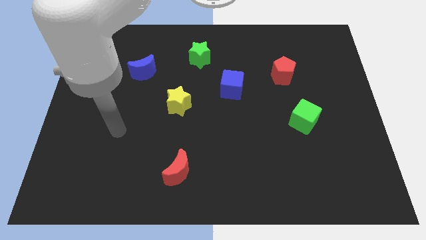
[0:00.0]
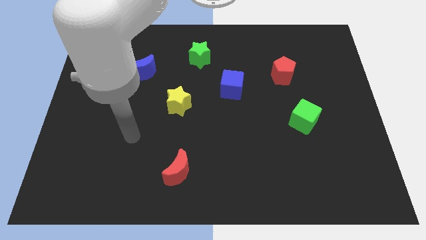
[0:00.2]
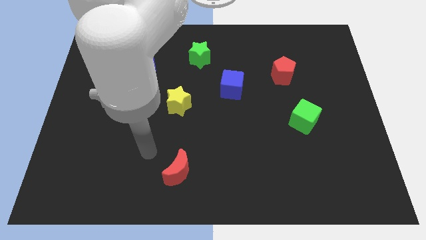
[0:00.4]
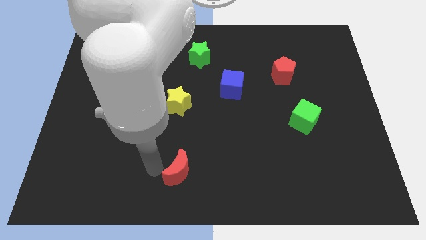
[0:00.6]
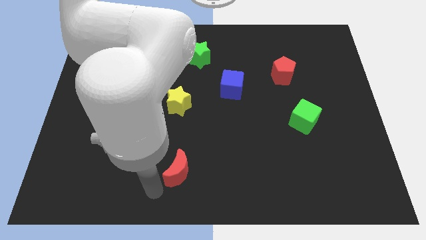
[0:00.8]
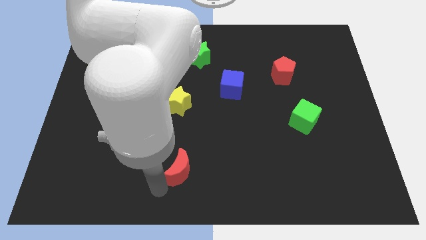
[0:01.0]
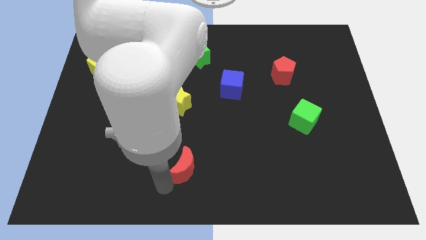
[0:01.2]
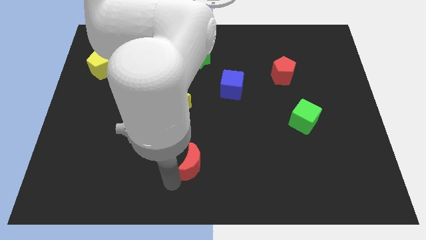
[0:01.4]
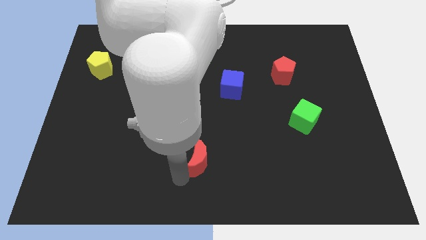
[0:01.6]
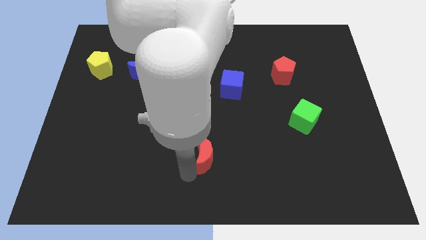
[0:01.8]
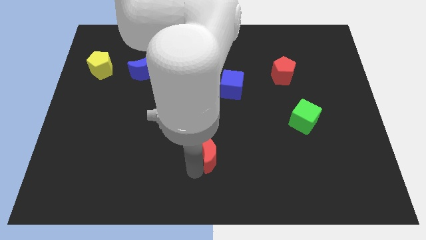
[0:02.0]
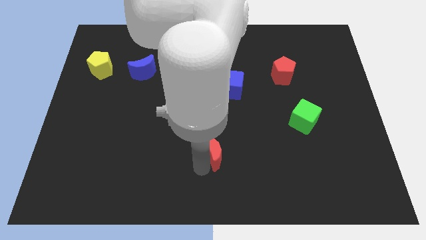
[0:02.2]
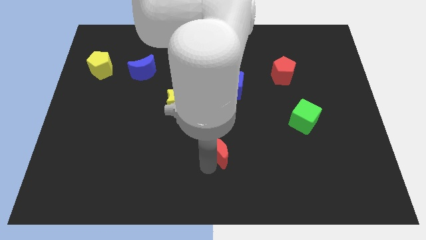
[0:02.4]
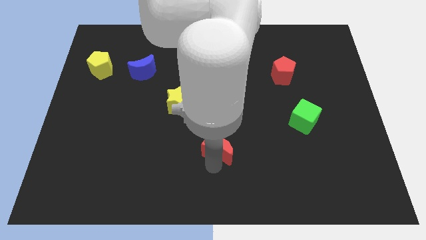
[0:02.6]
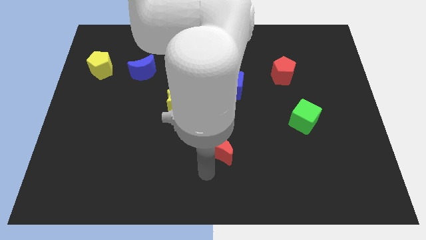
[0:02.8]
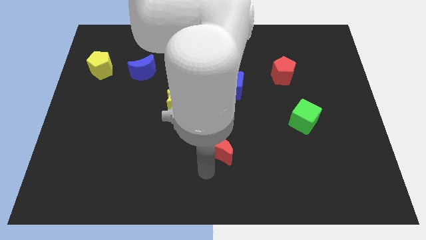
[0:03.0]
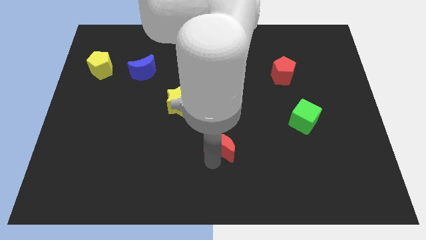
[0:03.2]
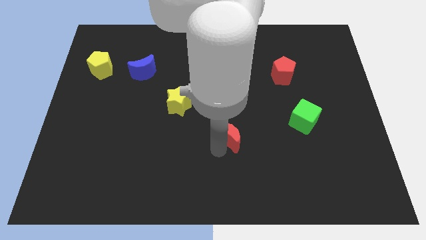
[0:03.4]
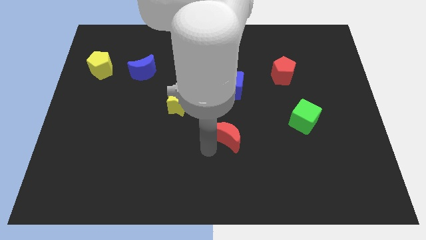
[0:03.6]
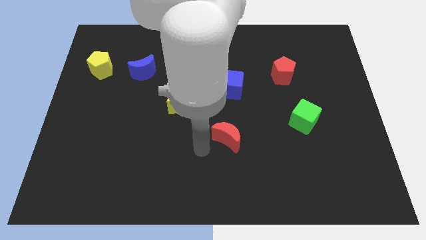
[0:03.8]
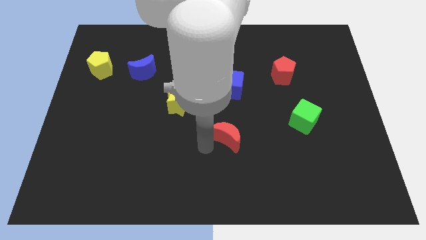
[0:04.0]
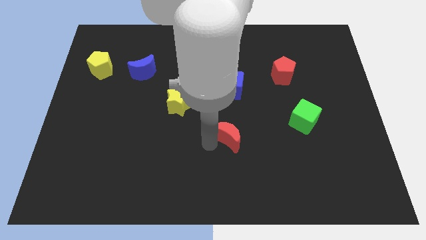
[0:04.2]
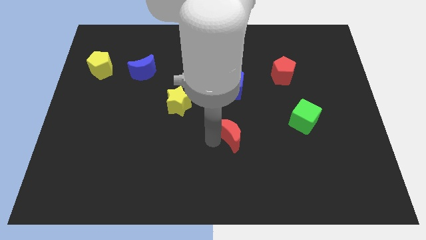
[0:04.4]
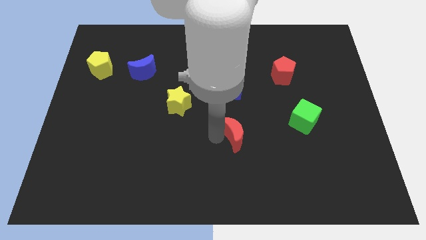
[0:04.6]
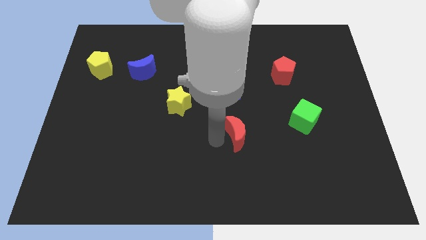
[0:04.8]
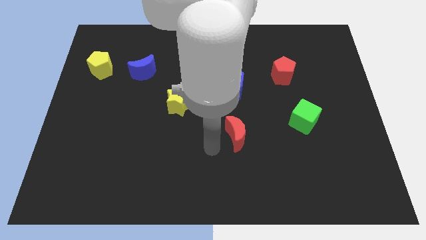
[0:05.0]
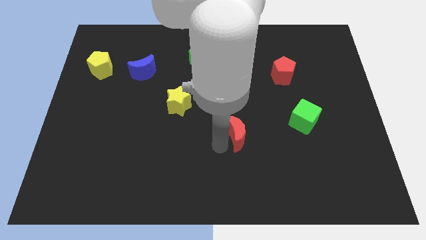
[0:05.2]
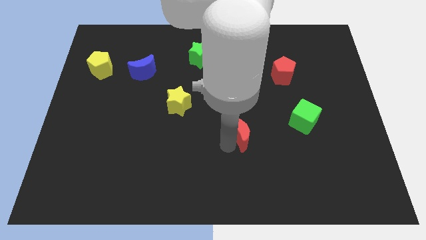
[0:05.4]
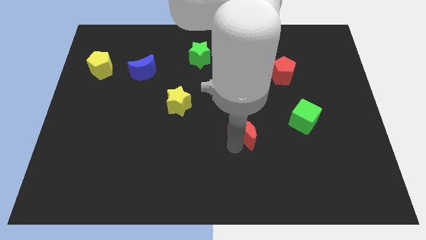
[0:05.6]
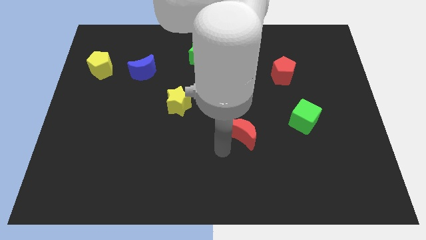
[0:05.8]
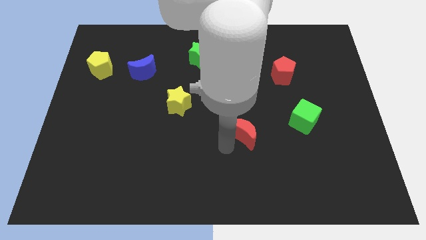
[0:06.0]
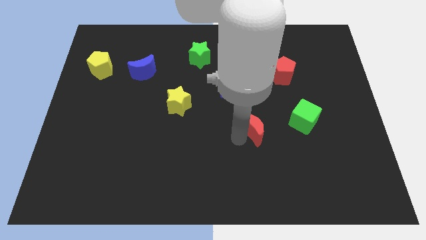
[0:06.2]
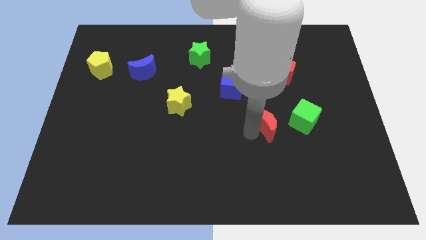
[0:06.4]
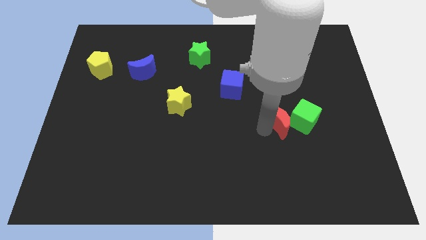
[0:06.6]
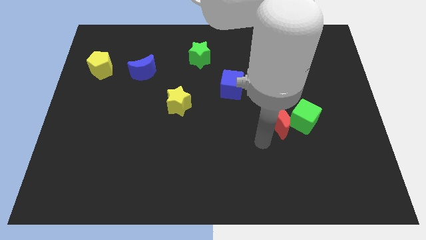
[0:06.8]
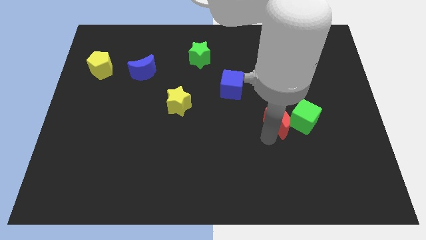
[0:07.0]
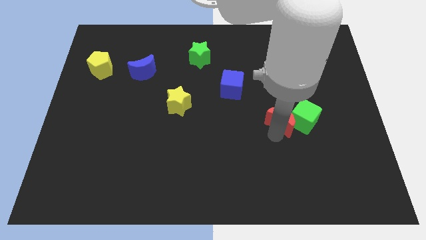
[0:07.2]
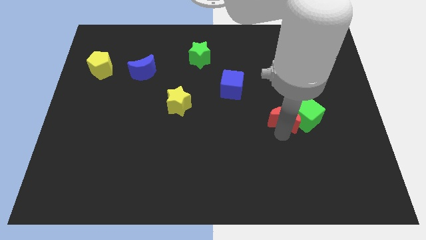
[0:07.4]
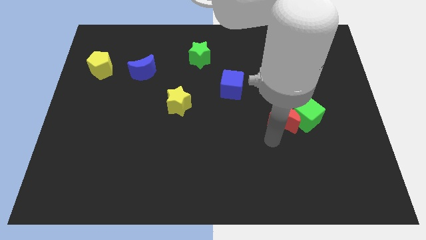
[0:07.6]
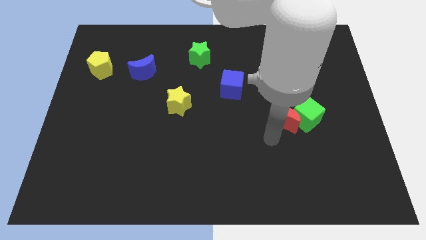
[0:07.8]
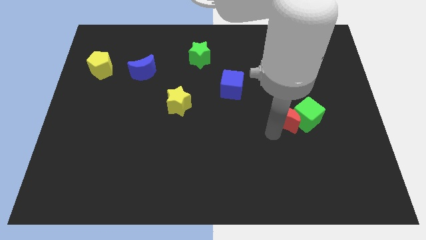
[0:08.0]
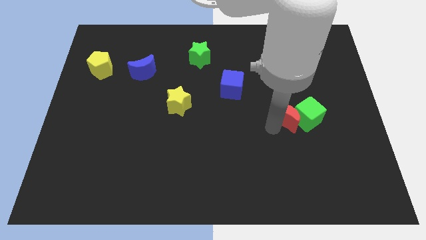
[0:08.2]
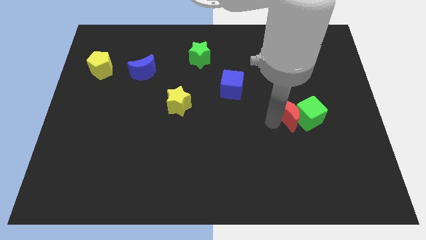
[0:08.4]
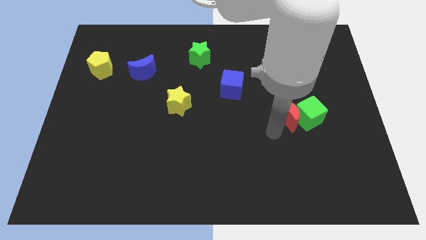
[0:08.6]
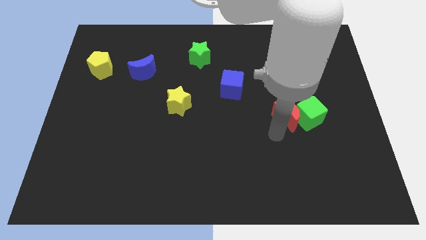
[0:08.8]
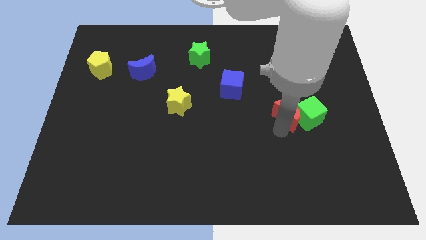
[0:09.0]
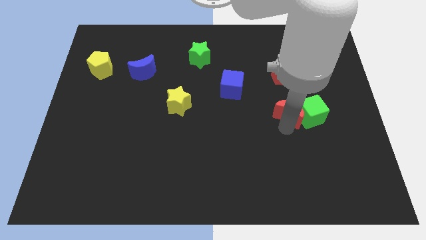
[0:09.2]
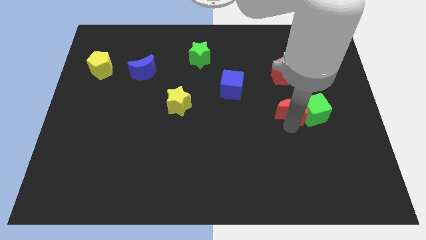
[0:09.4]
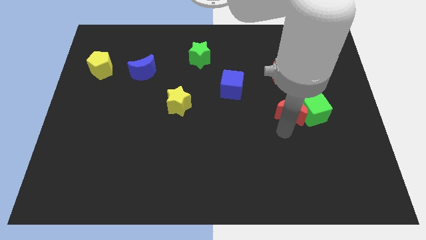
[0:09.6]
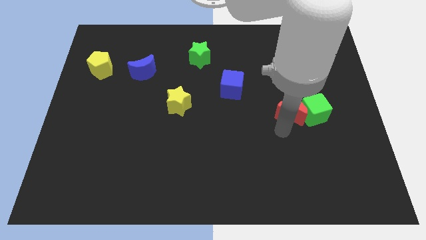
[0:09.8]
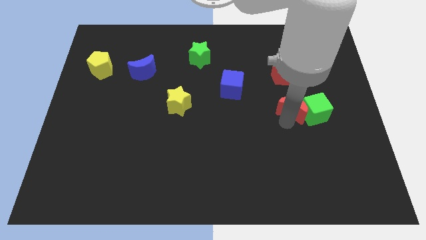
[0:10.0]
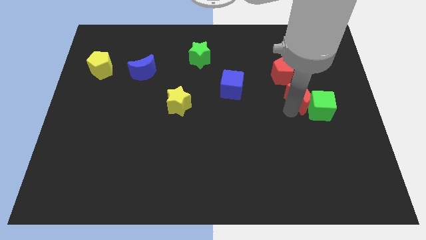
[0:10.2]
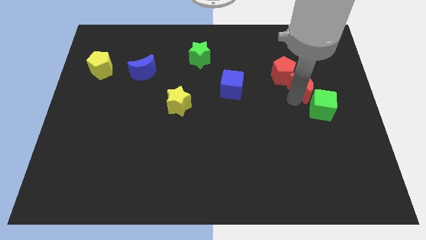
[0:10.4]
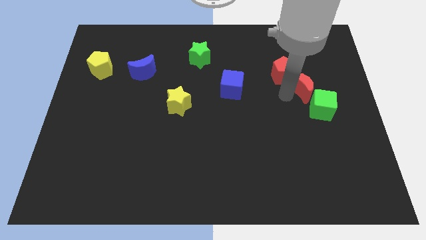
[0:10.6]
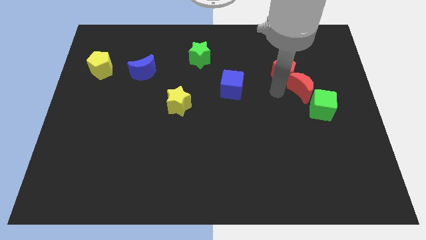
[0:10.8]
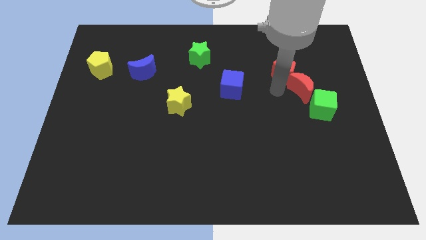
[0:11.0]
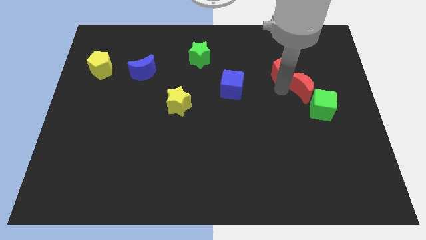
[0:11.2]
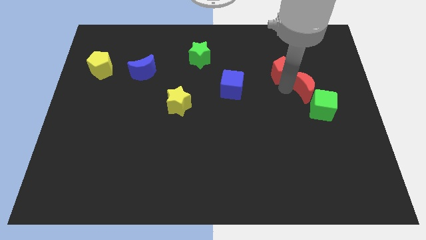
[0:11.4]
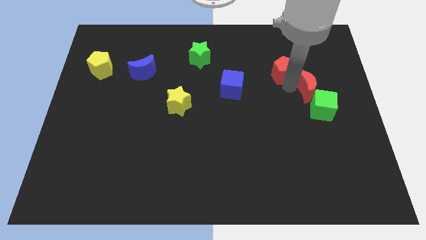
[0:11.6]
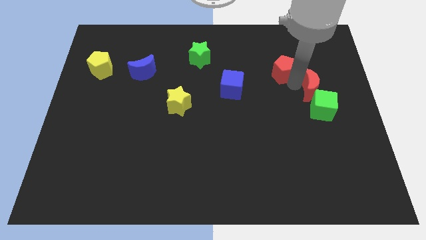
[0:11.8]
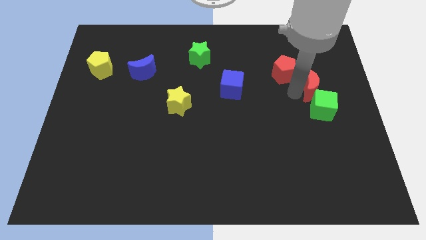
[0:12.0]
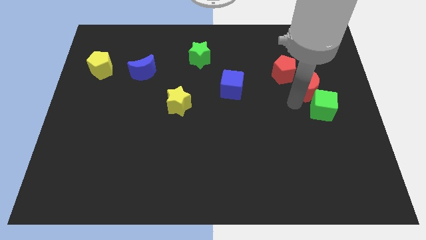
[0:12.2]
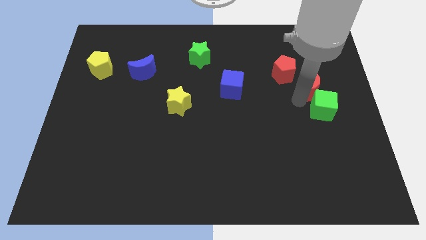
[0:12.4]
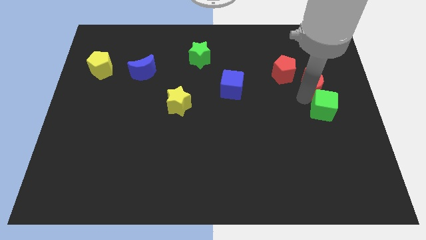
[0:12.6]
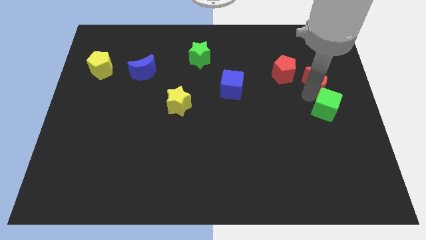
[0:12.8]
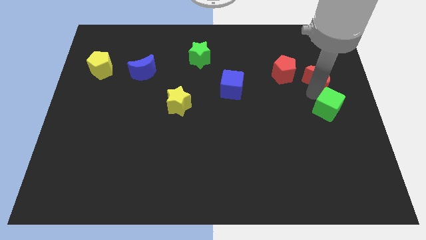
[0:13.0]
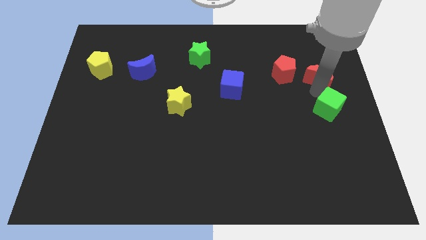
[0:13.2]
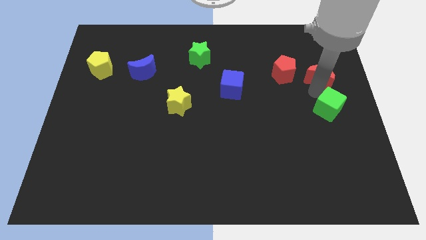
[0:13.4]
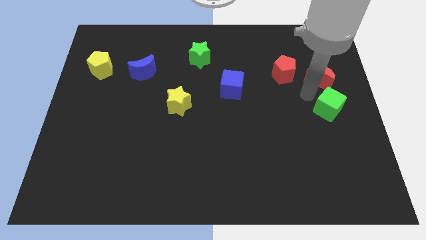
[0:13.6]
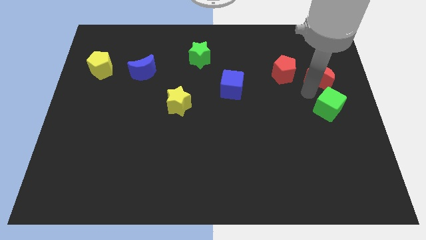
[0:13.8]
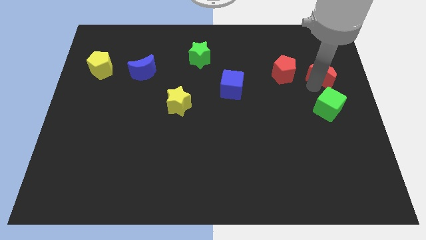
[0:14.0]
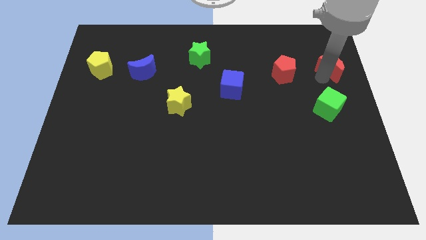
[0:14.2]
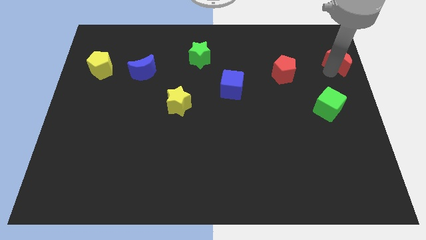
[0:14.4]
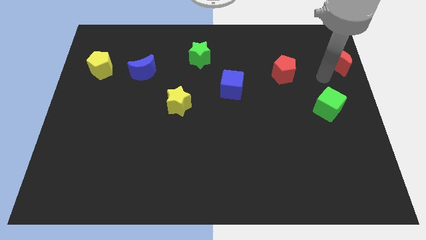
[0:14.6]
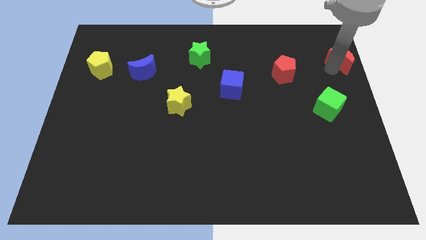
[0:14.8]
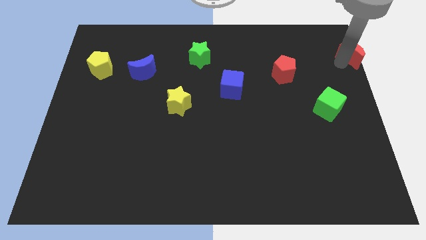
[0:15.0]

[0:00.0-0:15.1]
move the red moon to the top right
